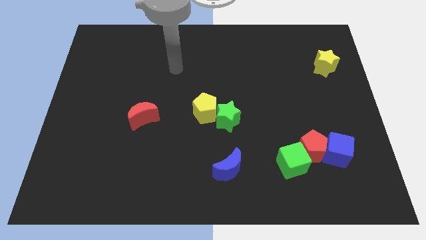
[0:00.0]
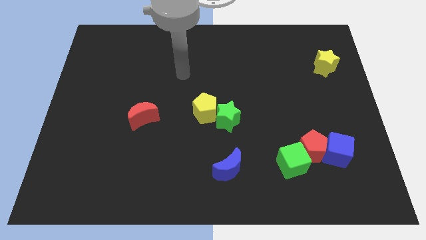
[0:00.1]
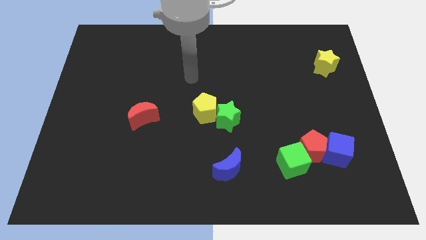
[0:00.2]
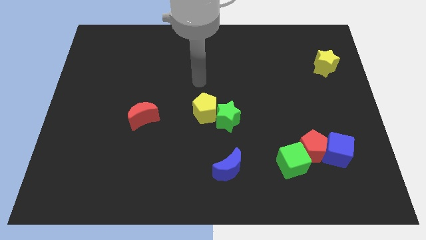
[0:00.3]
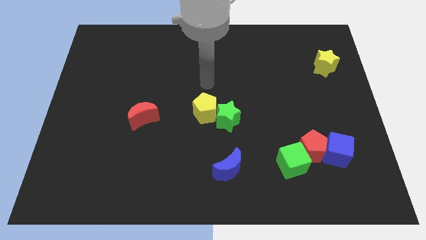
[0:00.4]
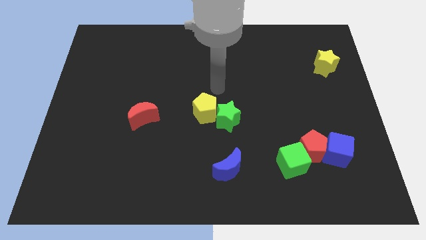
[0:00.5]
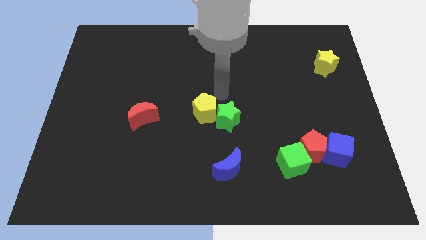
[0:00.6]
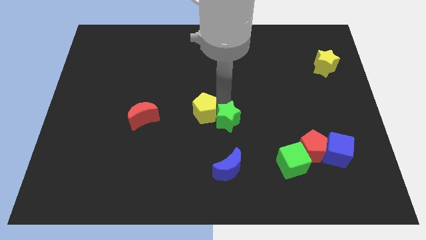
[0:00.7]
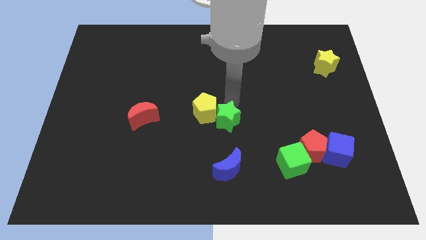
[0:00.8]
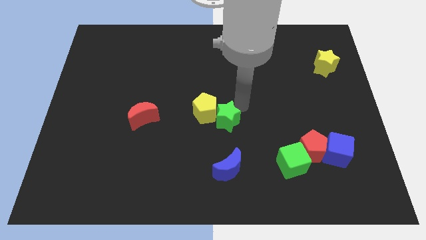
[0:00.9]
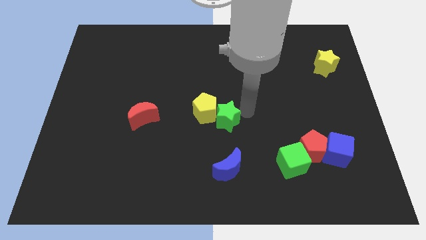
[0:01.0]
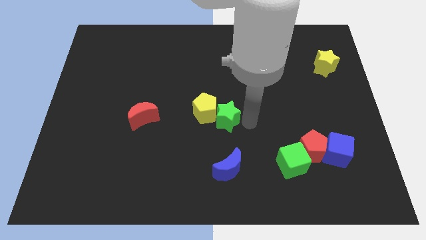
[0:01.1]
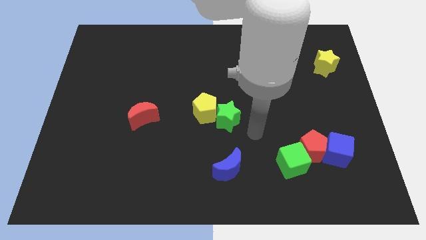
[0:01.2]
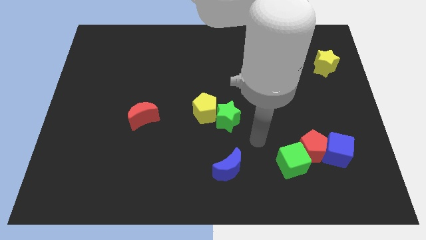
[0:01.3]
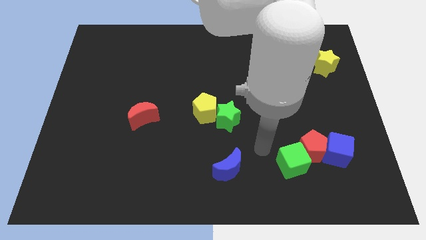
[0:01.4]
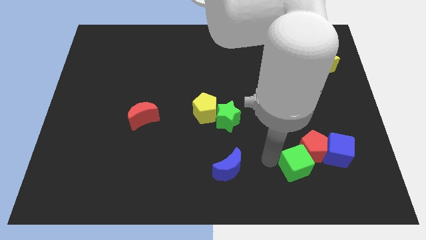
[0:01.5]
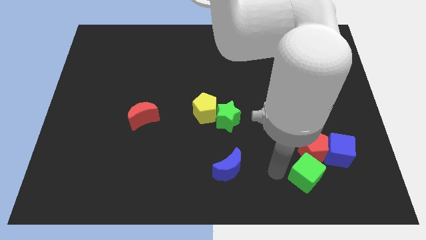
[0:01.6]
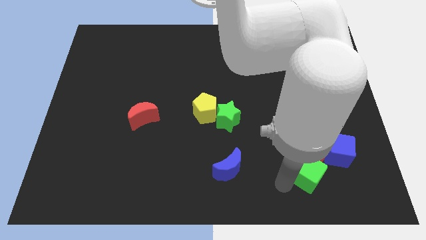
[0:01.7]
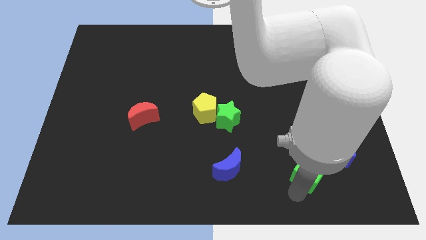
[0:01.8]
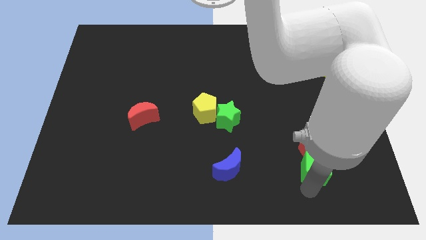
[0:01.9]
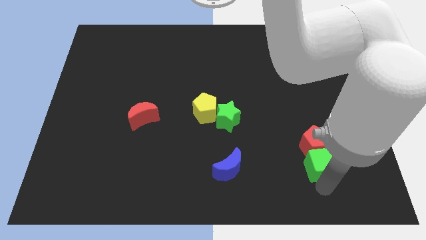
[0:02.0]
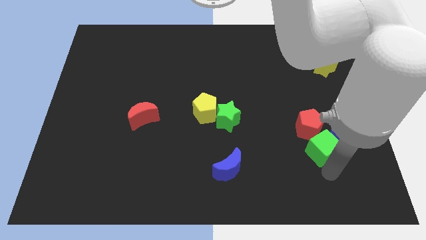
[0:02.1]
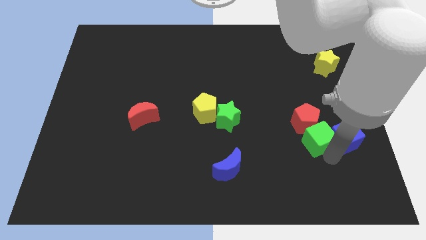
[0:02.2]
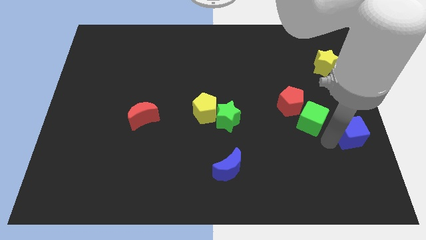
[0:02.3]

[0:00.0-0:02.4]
separate the red pentagon from the green cube and blue cube

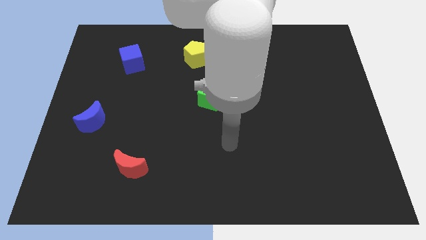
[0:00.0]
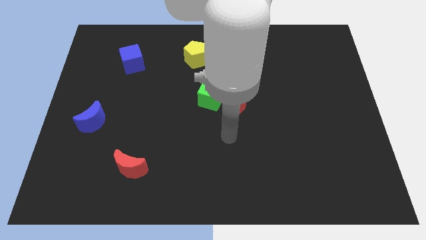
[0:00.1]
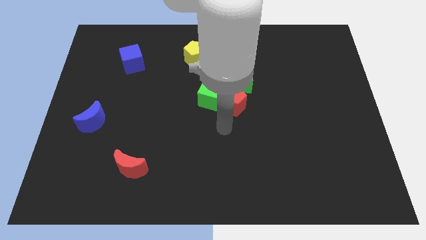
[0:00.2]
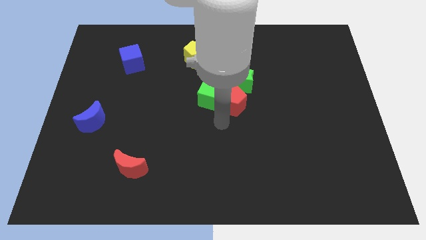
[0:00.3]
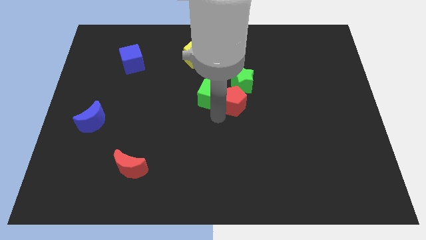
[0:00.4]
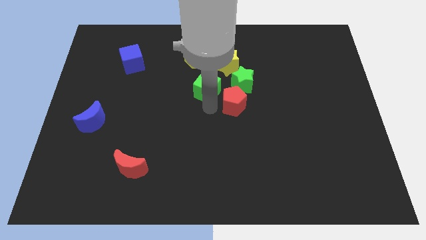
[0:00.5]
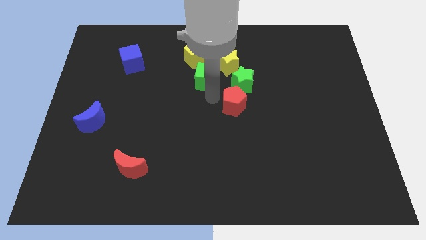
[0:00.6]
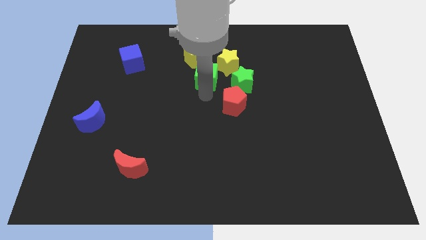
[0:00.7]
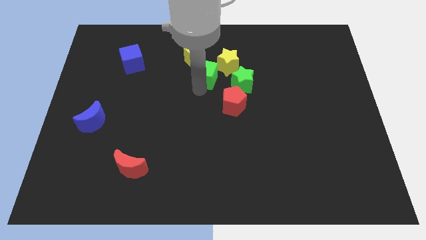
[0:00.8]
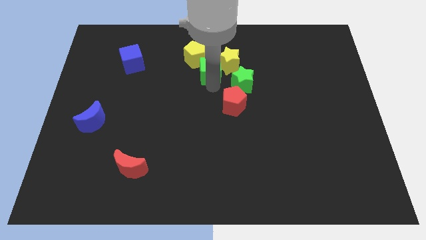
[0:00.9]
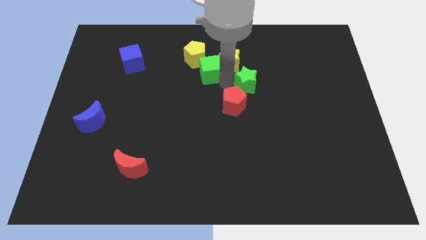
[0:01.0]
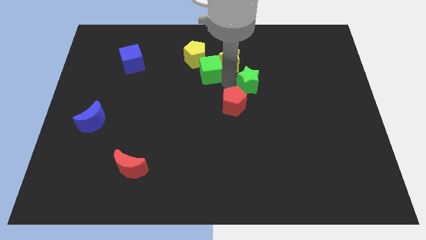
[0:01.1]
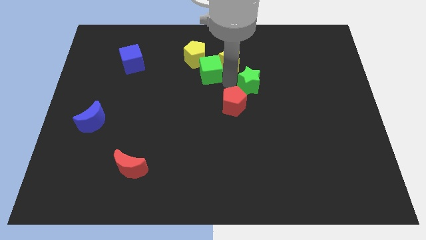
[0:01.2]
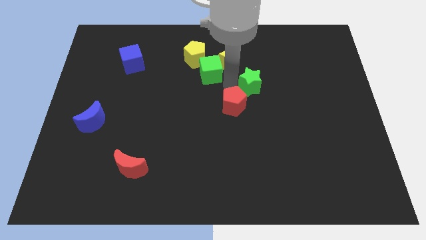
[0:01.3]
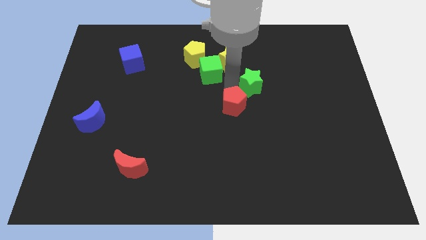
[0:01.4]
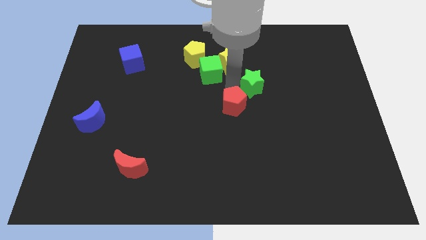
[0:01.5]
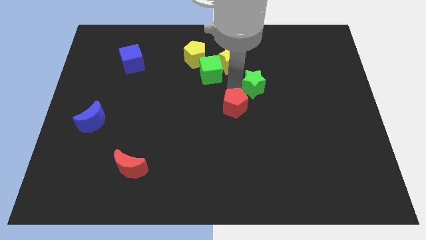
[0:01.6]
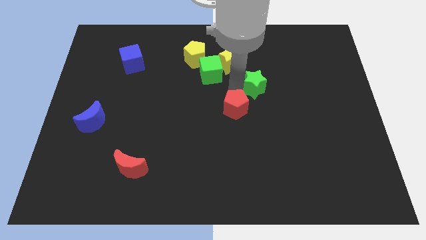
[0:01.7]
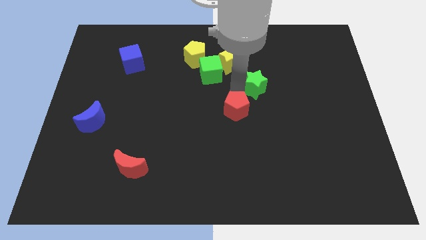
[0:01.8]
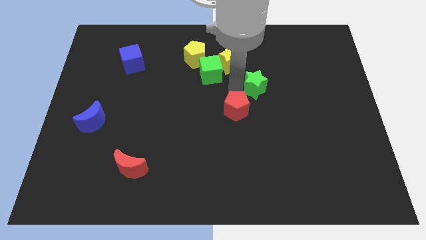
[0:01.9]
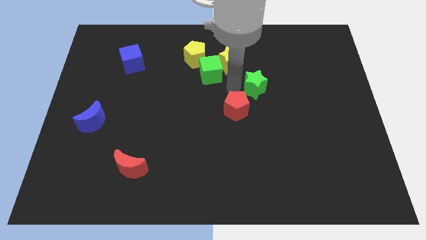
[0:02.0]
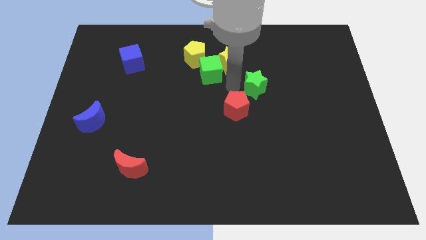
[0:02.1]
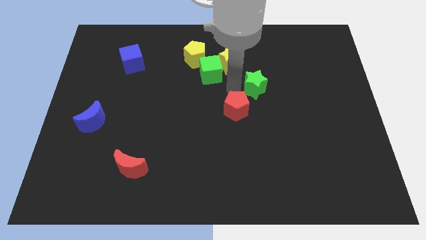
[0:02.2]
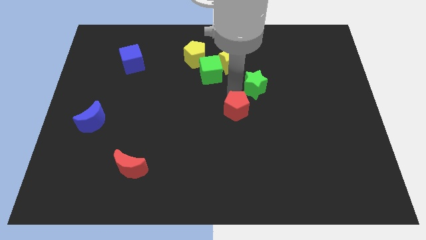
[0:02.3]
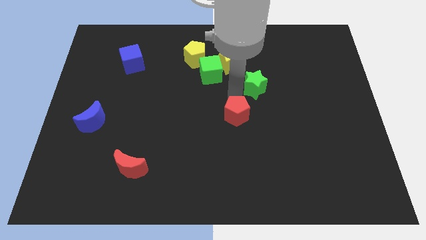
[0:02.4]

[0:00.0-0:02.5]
separate the red pentagon from the green cube and green star

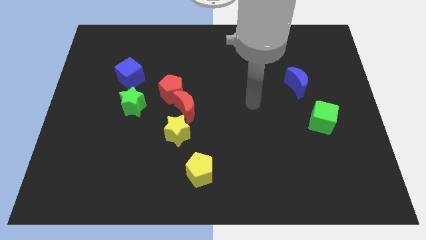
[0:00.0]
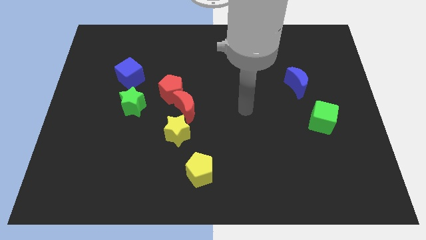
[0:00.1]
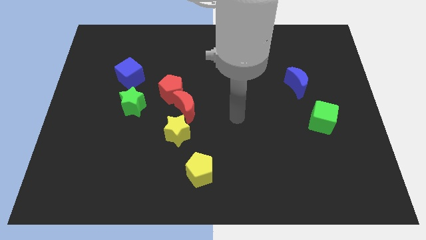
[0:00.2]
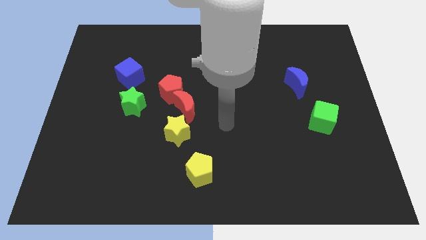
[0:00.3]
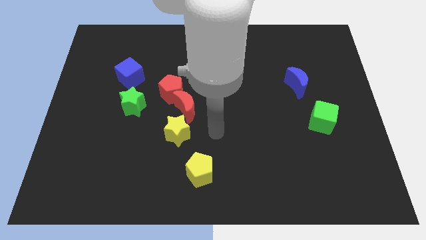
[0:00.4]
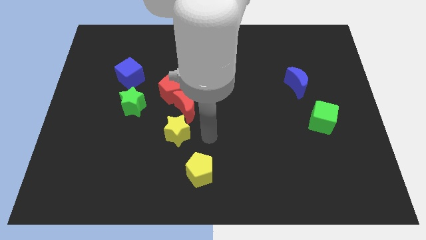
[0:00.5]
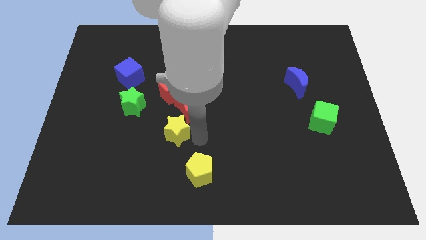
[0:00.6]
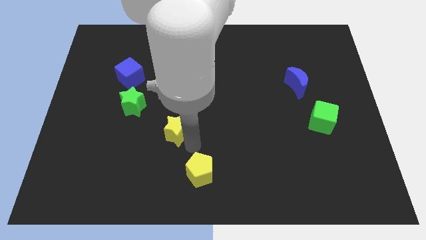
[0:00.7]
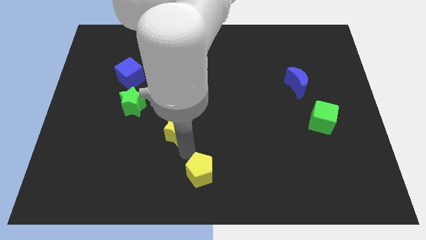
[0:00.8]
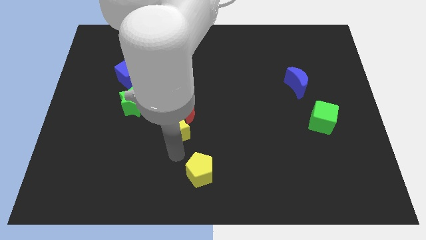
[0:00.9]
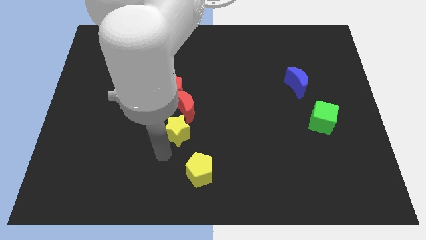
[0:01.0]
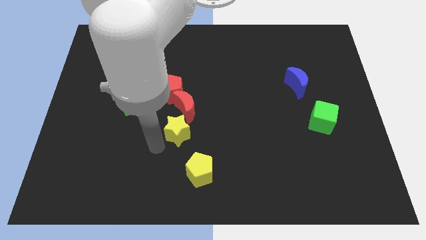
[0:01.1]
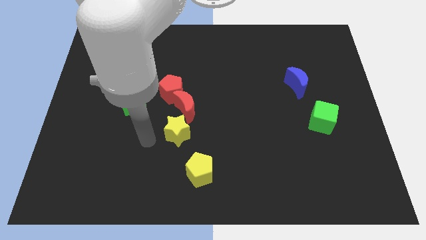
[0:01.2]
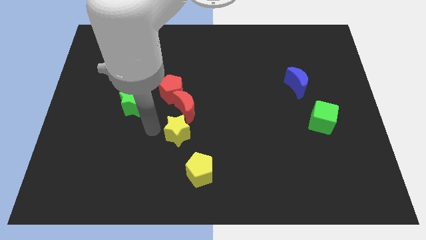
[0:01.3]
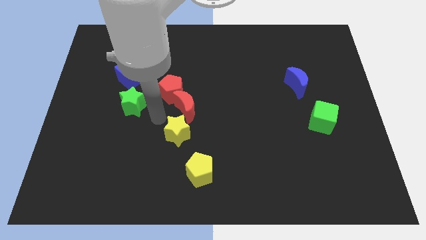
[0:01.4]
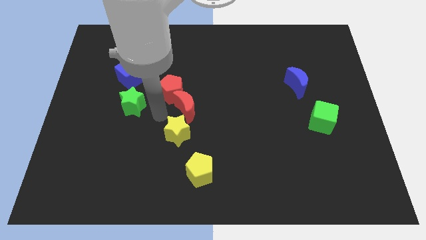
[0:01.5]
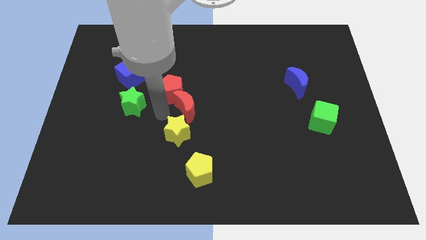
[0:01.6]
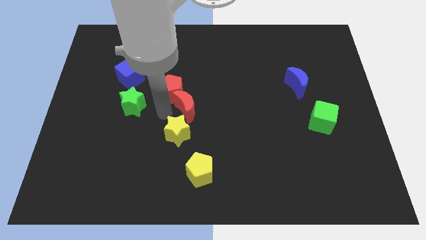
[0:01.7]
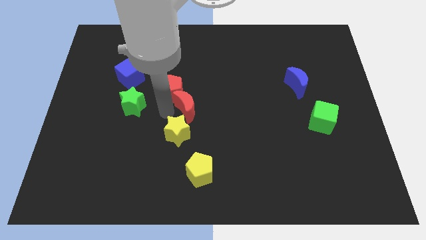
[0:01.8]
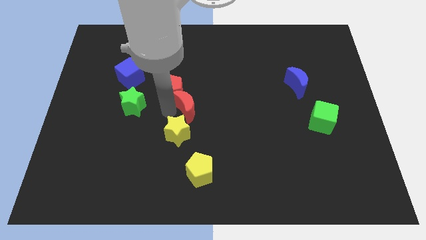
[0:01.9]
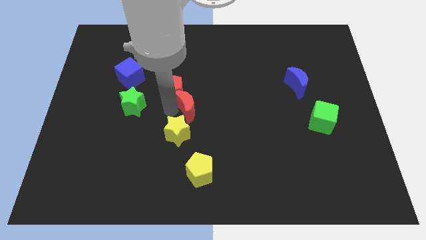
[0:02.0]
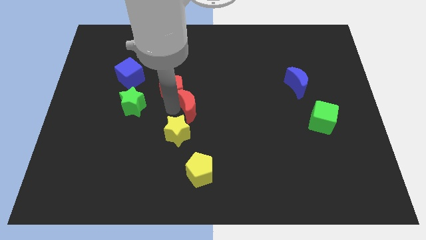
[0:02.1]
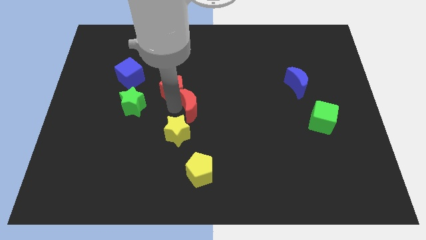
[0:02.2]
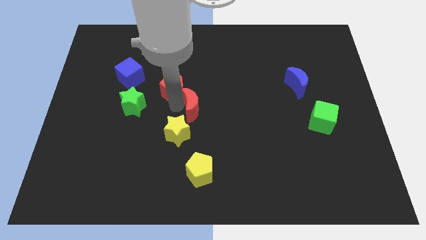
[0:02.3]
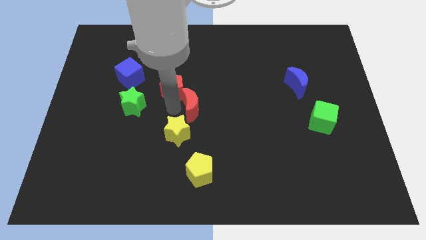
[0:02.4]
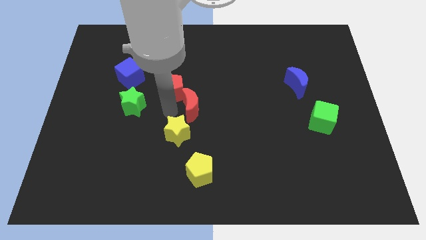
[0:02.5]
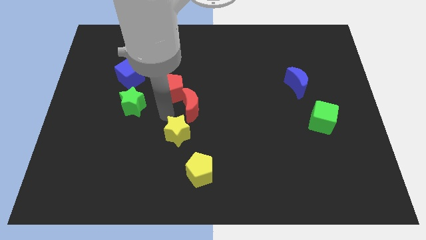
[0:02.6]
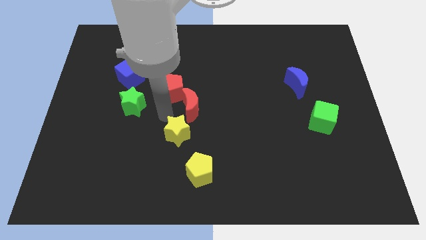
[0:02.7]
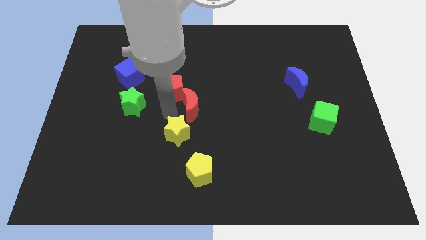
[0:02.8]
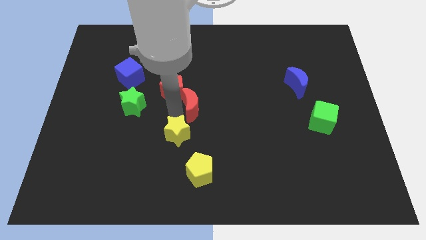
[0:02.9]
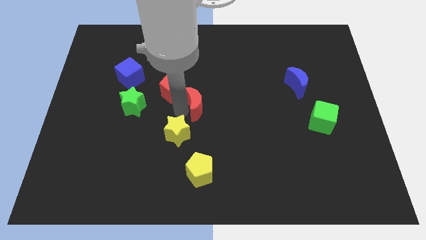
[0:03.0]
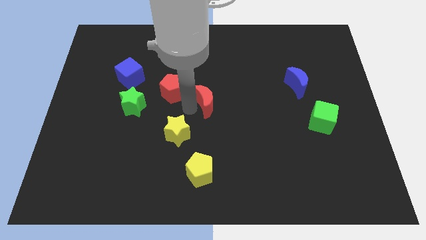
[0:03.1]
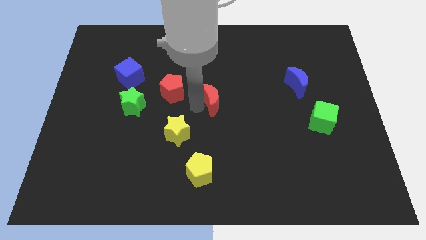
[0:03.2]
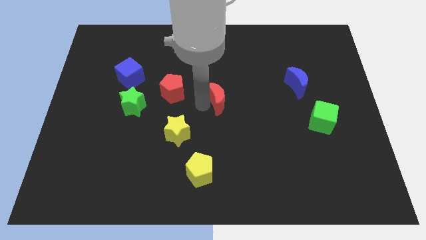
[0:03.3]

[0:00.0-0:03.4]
move the red moon away from the red pentagon and yellow star

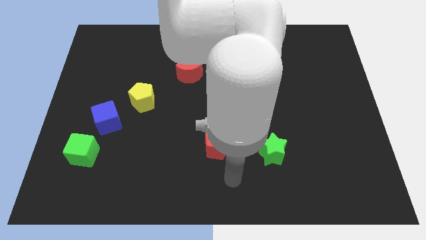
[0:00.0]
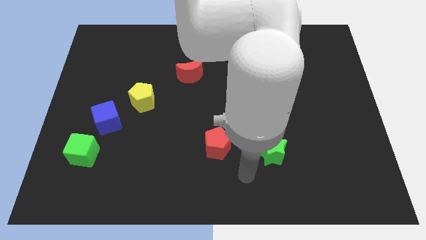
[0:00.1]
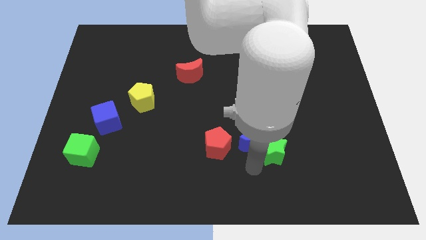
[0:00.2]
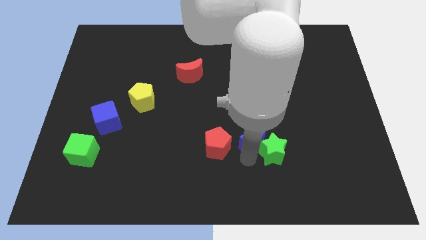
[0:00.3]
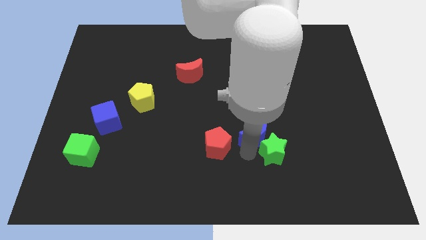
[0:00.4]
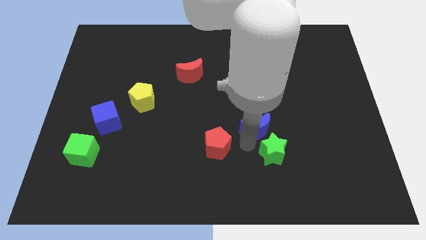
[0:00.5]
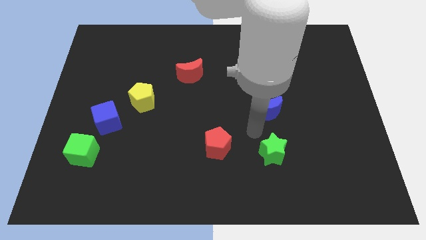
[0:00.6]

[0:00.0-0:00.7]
move the green star away from the blue moon

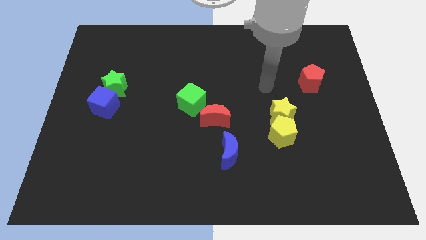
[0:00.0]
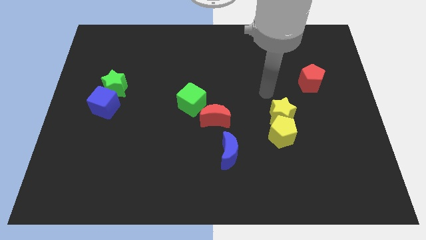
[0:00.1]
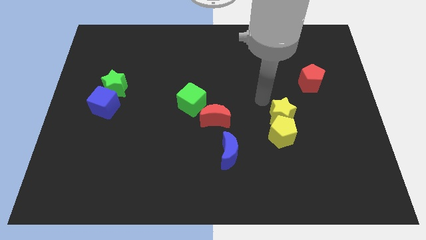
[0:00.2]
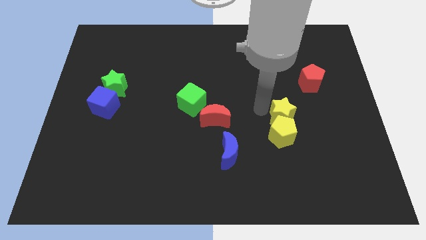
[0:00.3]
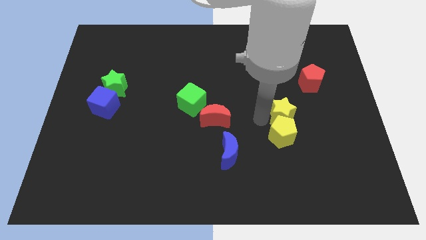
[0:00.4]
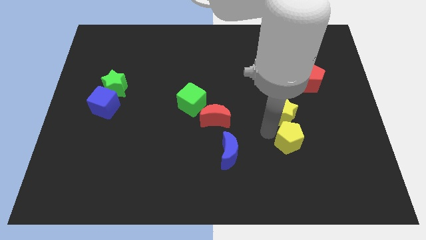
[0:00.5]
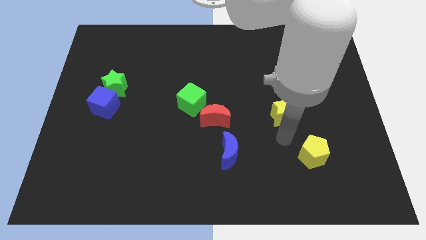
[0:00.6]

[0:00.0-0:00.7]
move the yellow star away from the yellow pentagon
